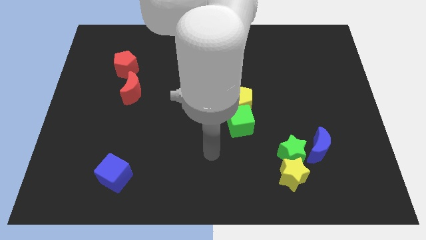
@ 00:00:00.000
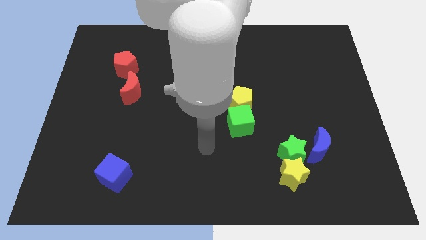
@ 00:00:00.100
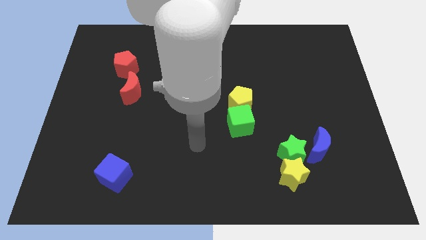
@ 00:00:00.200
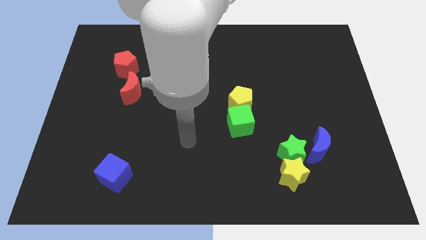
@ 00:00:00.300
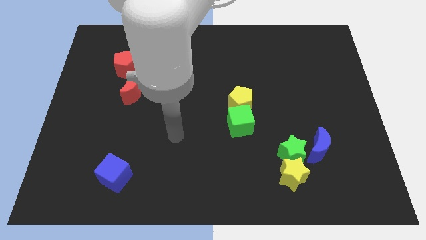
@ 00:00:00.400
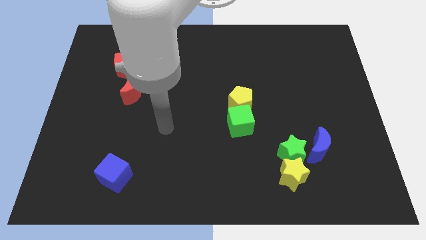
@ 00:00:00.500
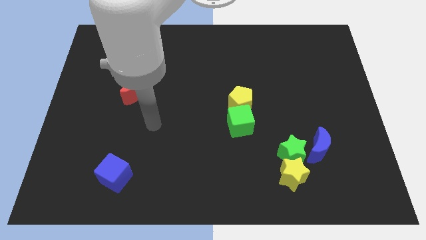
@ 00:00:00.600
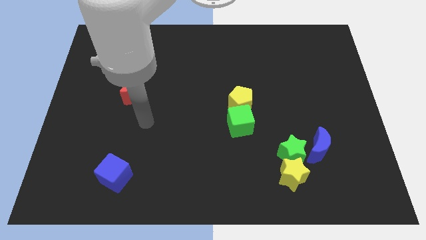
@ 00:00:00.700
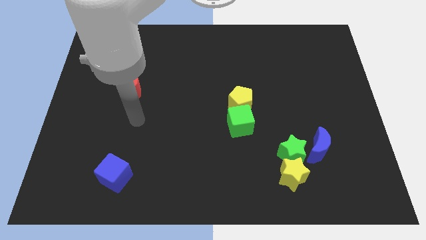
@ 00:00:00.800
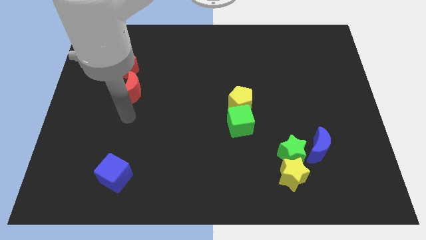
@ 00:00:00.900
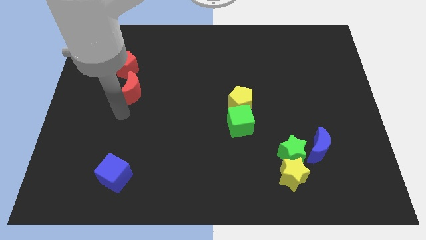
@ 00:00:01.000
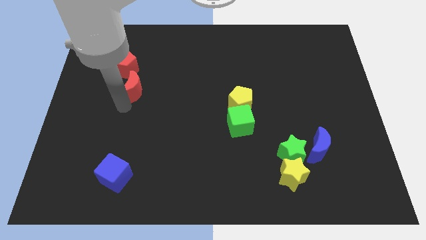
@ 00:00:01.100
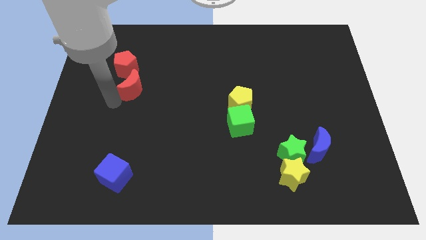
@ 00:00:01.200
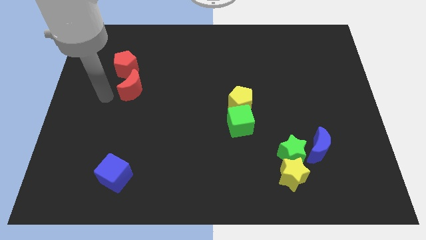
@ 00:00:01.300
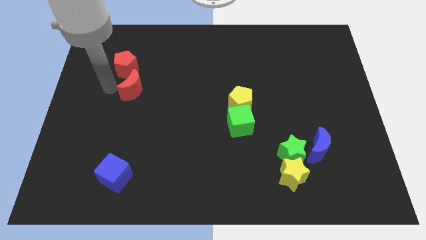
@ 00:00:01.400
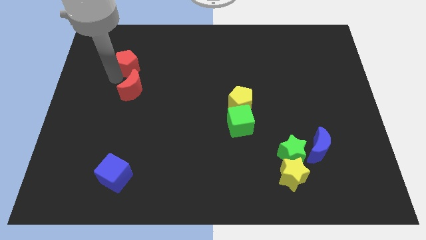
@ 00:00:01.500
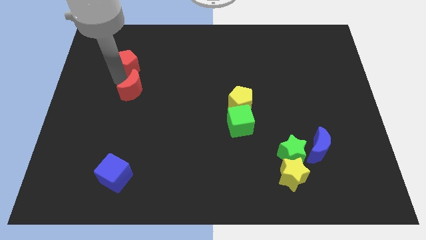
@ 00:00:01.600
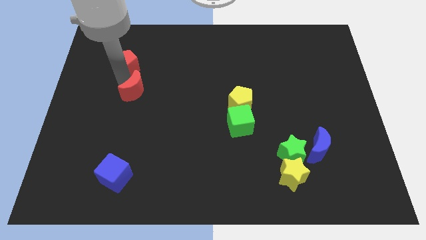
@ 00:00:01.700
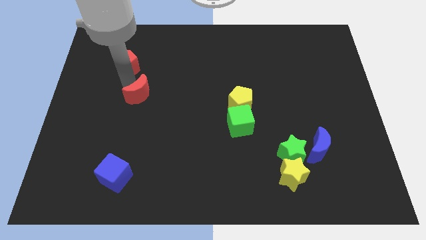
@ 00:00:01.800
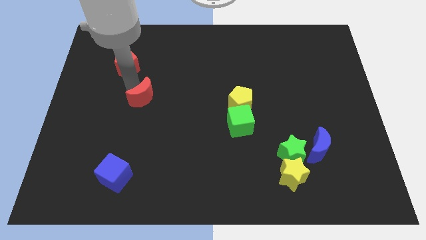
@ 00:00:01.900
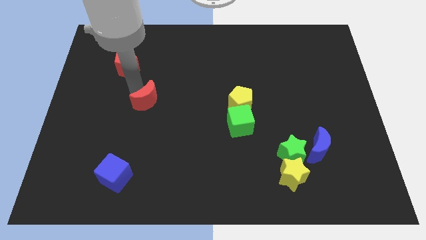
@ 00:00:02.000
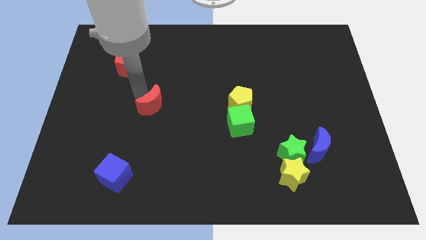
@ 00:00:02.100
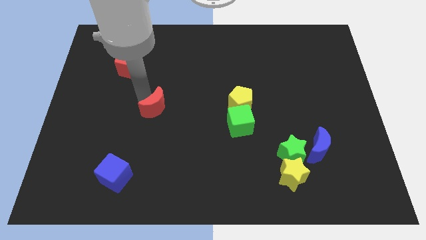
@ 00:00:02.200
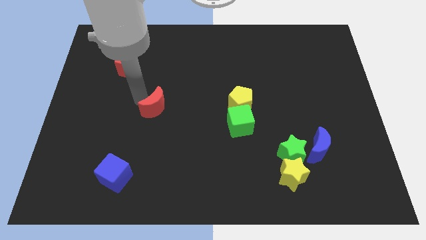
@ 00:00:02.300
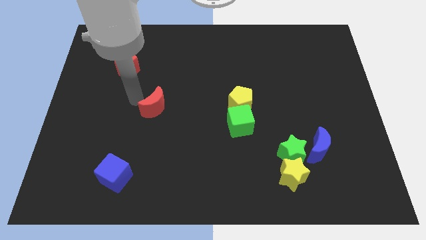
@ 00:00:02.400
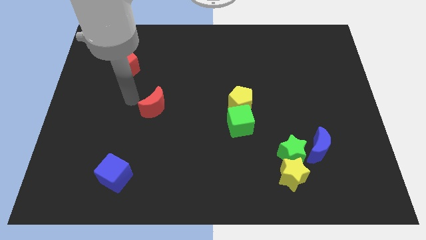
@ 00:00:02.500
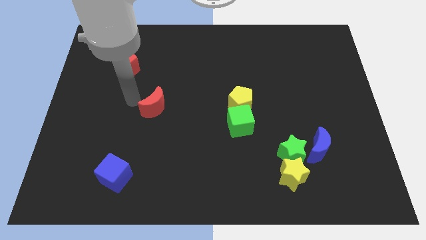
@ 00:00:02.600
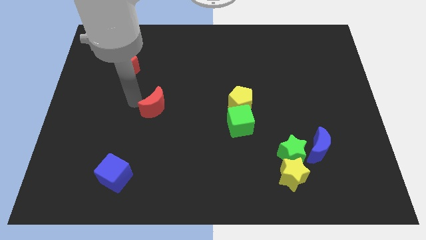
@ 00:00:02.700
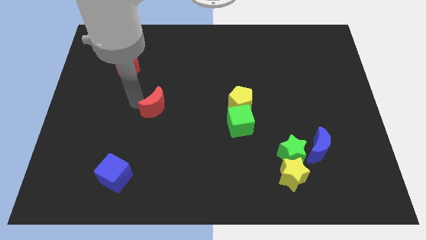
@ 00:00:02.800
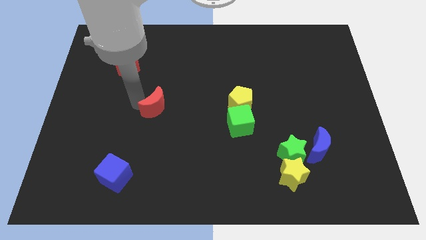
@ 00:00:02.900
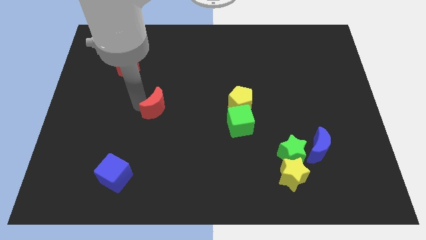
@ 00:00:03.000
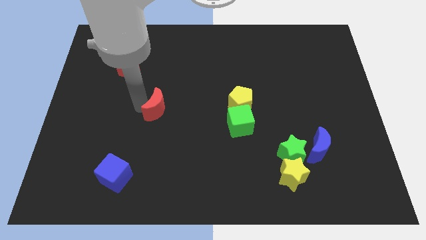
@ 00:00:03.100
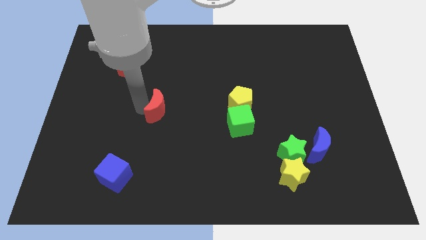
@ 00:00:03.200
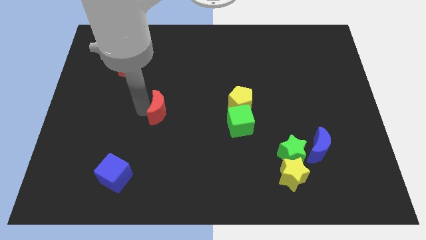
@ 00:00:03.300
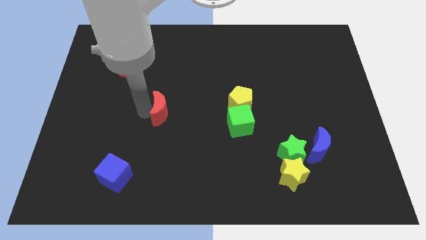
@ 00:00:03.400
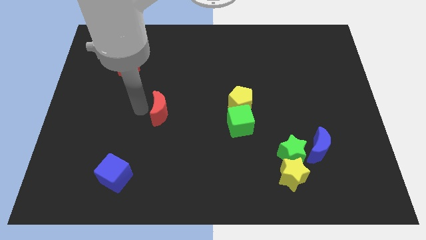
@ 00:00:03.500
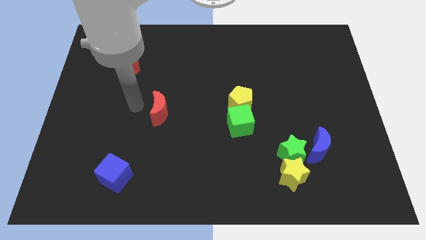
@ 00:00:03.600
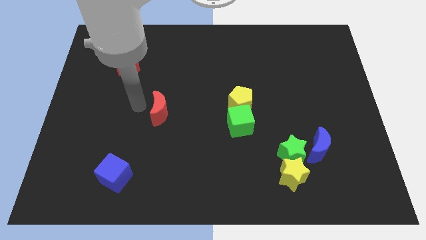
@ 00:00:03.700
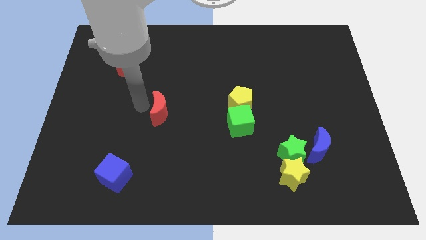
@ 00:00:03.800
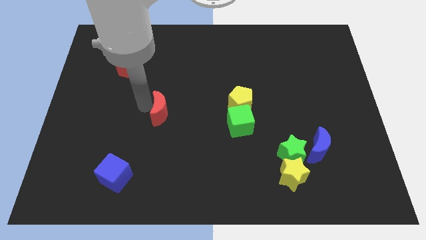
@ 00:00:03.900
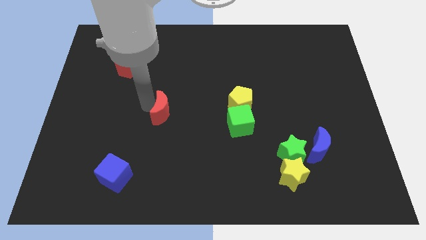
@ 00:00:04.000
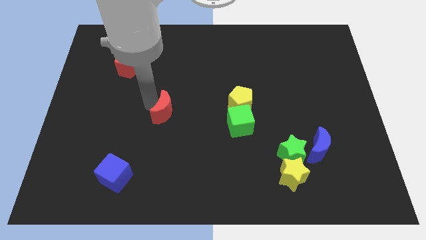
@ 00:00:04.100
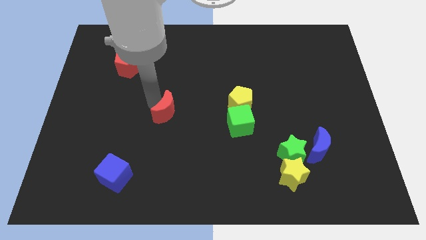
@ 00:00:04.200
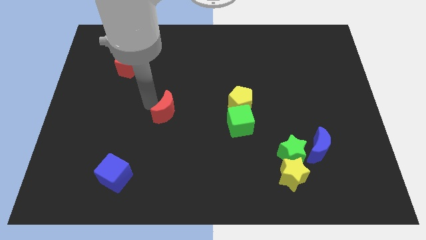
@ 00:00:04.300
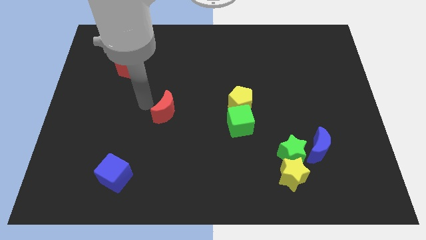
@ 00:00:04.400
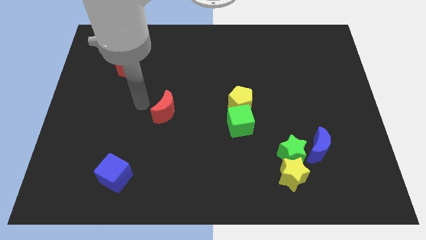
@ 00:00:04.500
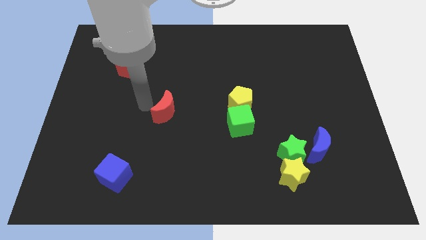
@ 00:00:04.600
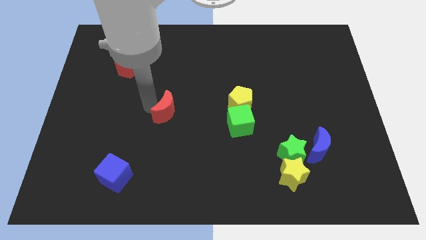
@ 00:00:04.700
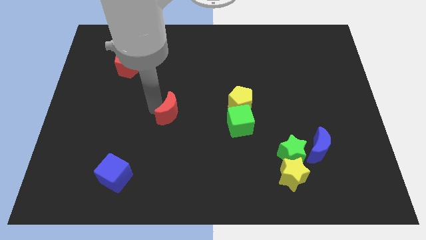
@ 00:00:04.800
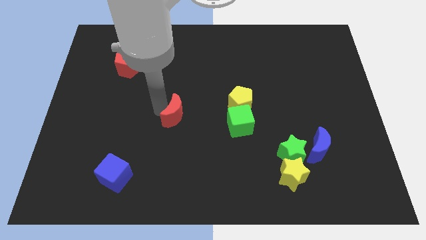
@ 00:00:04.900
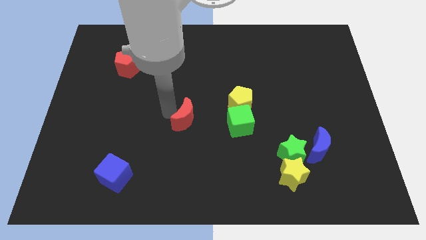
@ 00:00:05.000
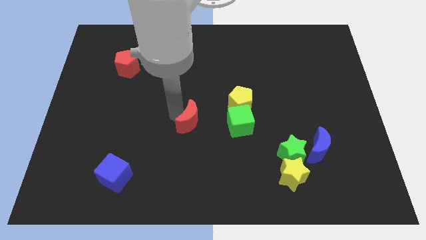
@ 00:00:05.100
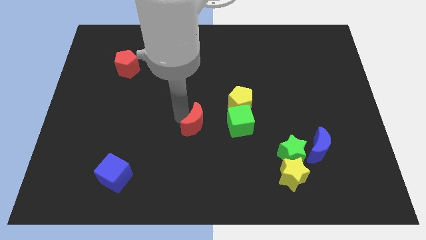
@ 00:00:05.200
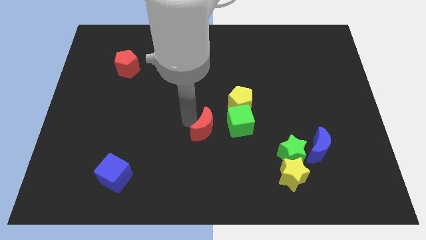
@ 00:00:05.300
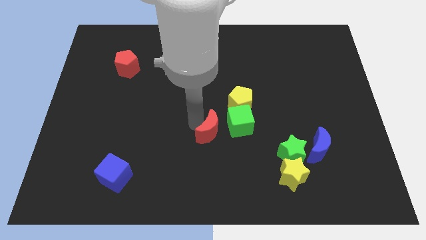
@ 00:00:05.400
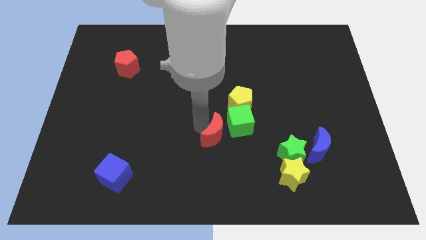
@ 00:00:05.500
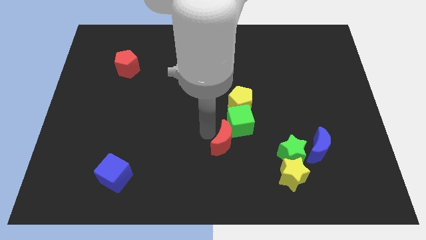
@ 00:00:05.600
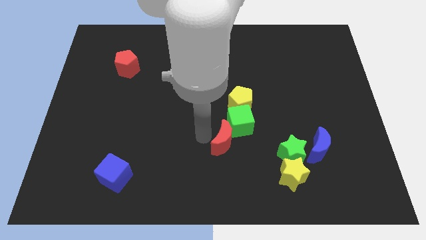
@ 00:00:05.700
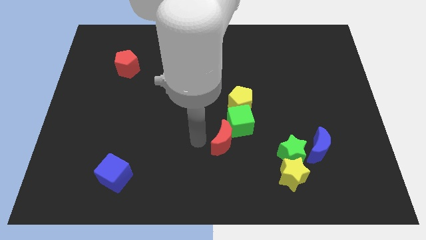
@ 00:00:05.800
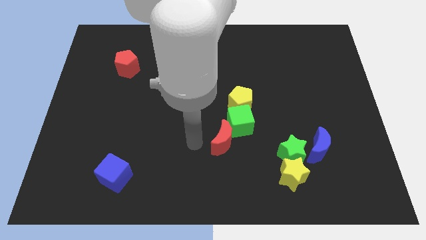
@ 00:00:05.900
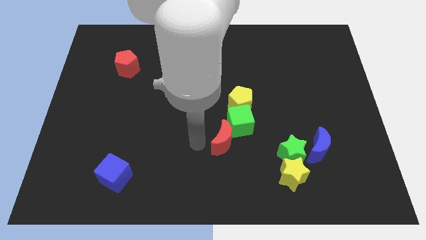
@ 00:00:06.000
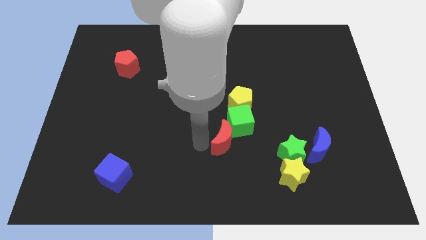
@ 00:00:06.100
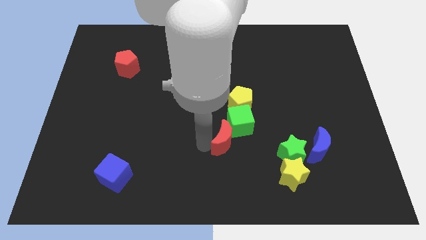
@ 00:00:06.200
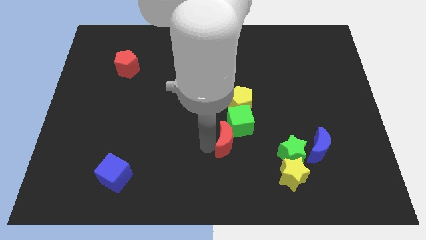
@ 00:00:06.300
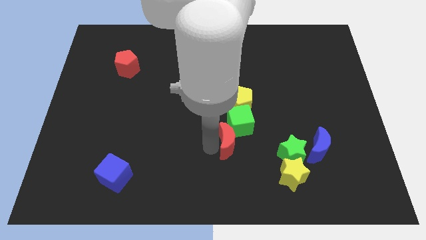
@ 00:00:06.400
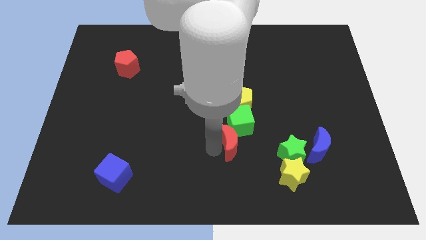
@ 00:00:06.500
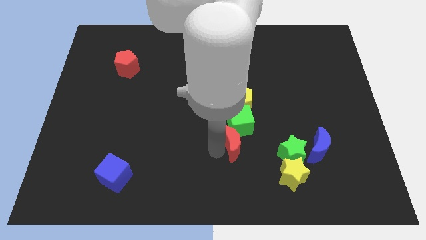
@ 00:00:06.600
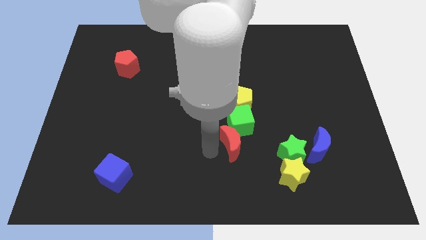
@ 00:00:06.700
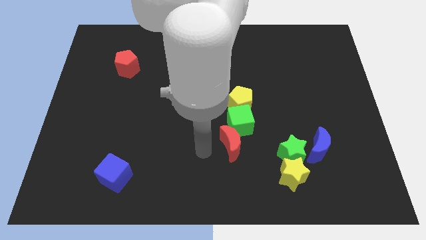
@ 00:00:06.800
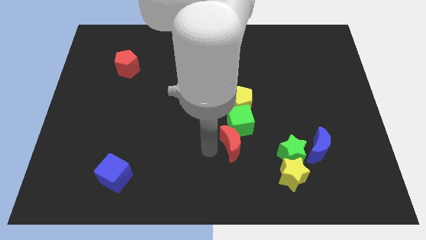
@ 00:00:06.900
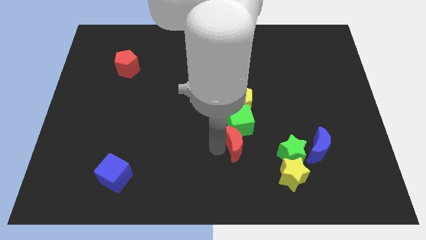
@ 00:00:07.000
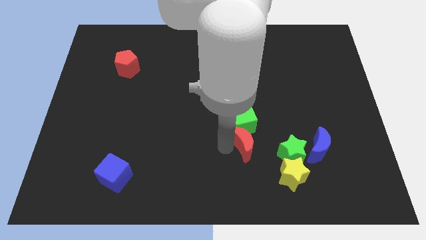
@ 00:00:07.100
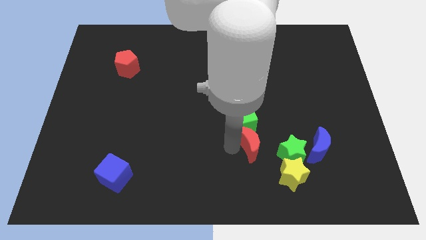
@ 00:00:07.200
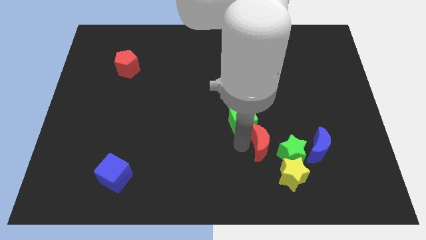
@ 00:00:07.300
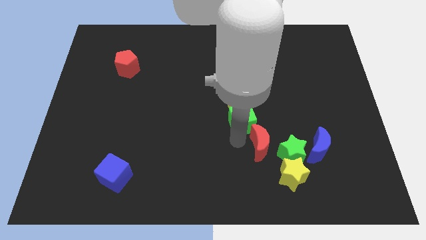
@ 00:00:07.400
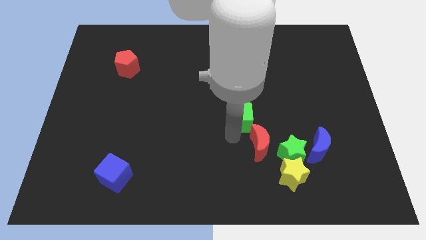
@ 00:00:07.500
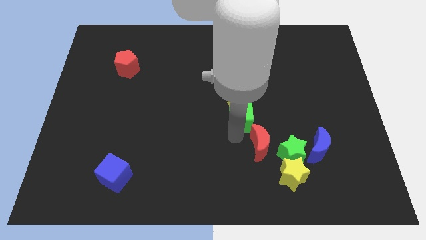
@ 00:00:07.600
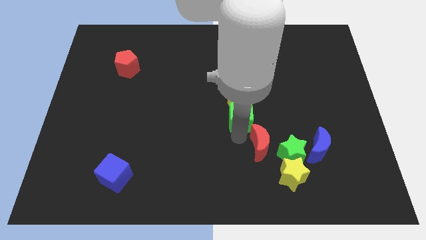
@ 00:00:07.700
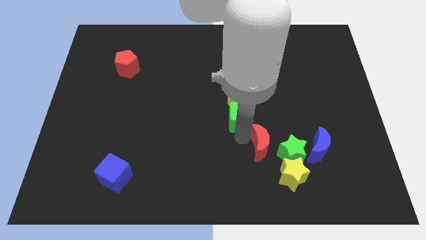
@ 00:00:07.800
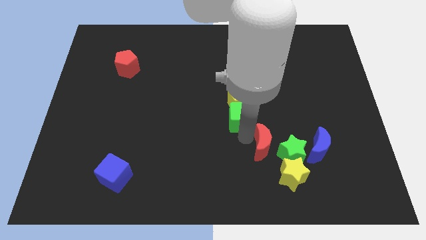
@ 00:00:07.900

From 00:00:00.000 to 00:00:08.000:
put the red moon close to the green star
